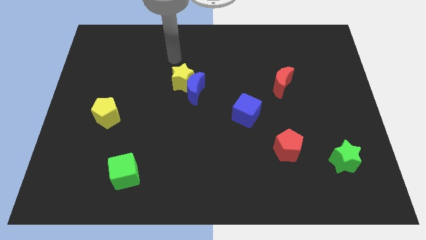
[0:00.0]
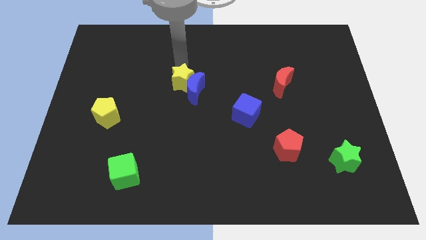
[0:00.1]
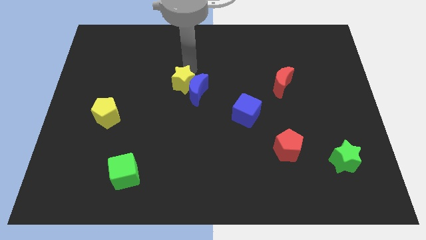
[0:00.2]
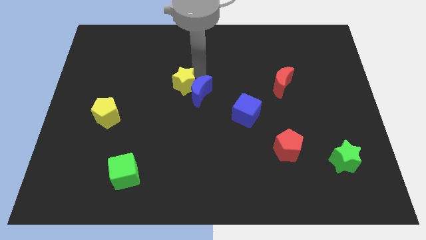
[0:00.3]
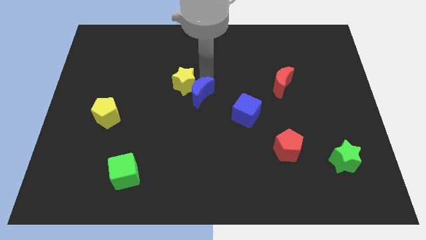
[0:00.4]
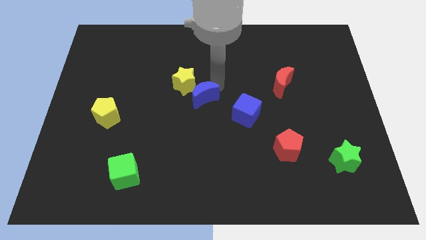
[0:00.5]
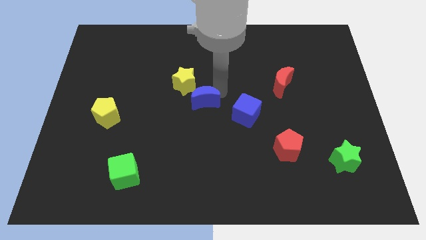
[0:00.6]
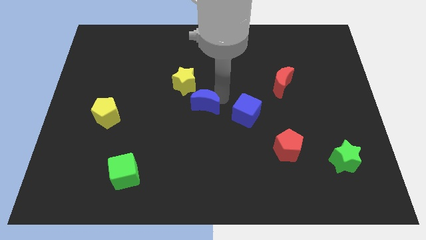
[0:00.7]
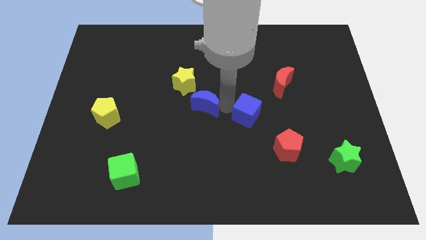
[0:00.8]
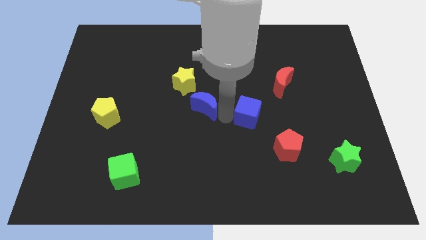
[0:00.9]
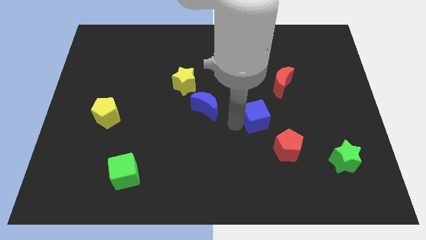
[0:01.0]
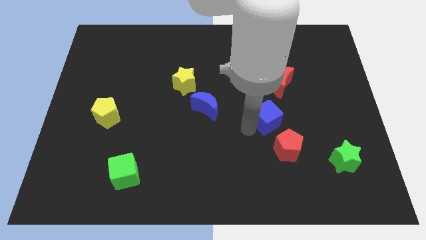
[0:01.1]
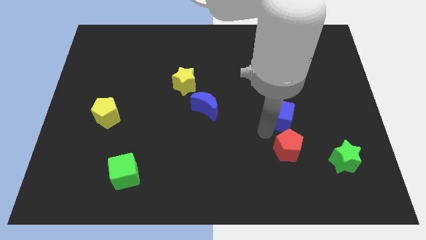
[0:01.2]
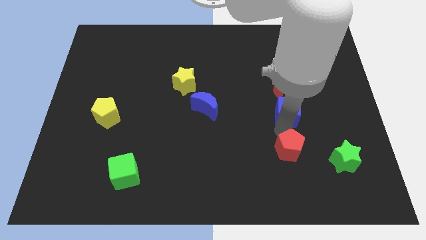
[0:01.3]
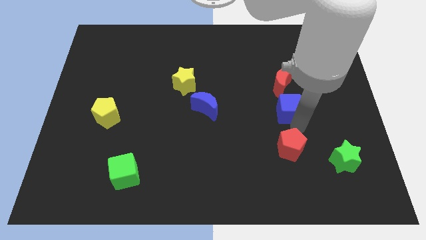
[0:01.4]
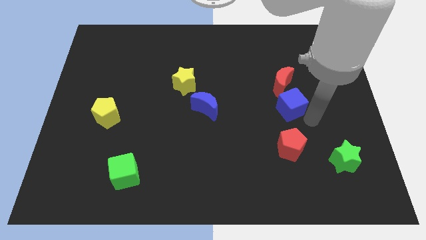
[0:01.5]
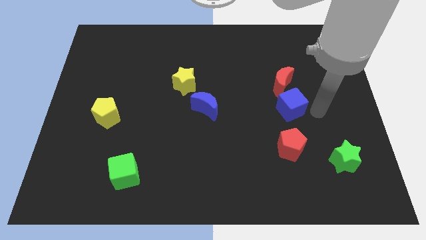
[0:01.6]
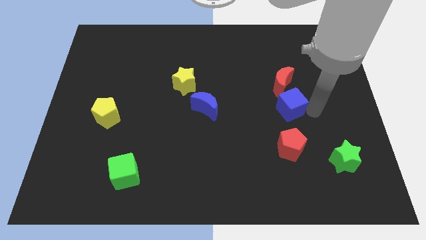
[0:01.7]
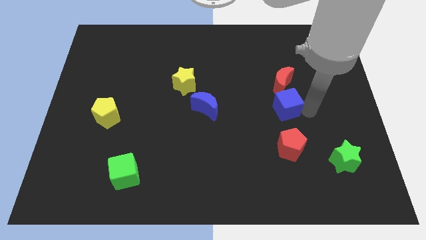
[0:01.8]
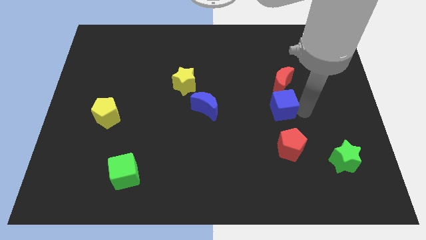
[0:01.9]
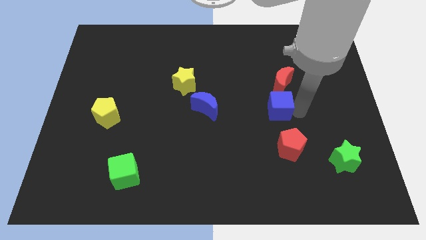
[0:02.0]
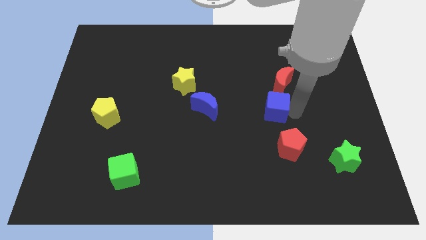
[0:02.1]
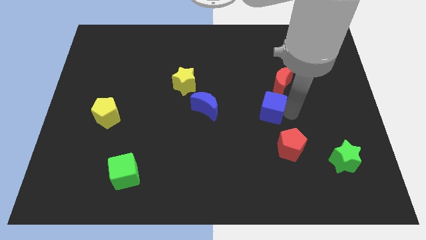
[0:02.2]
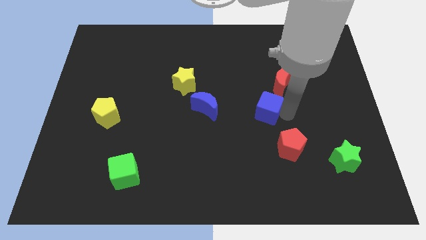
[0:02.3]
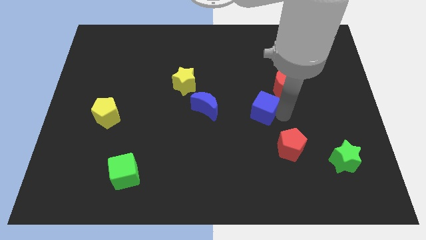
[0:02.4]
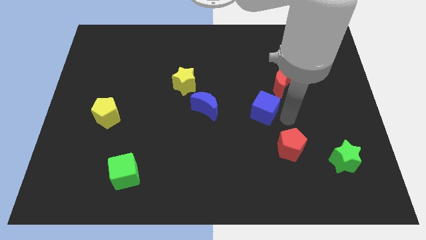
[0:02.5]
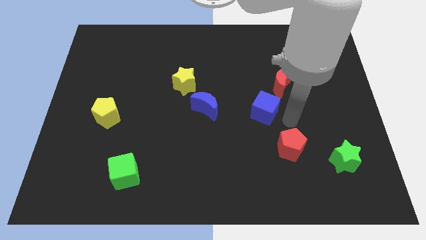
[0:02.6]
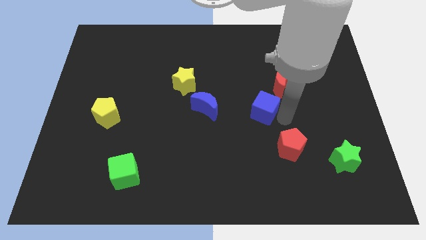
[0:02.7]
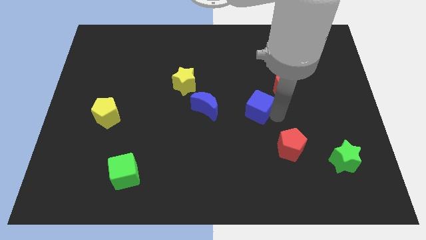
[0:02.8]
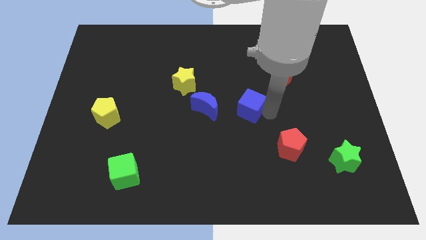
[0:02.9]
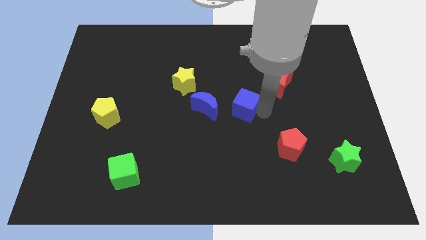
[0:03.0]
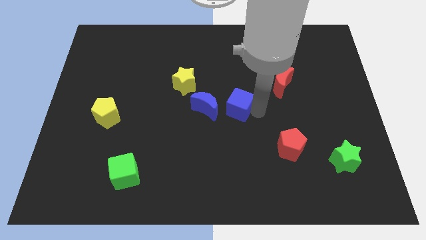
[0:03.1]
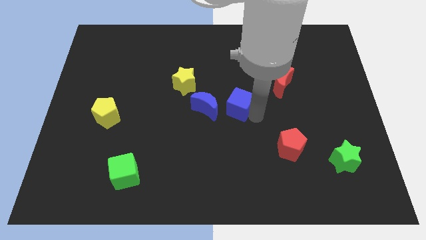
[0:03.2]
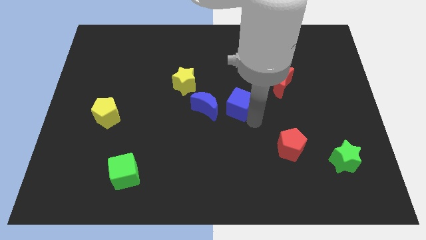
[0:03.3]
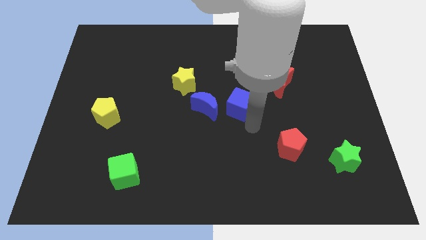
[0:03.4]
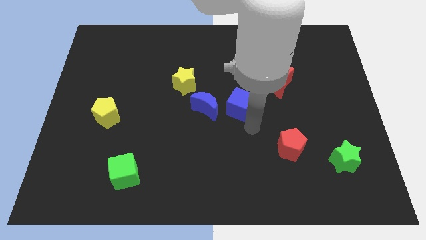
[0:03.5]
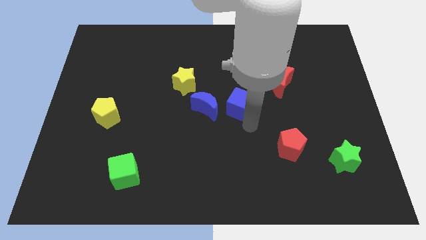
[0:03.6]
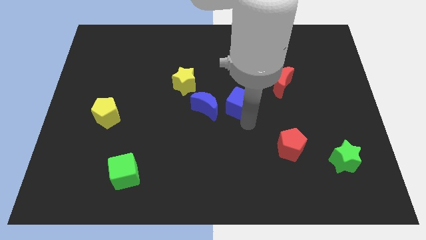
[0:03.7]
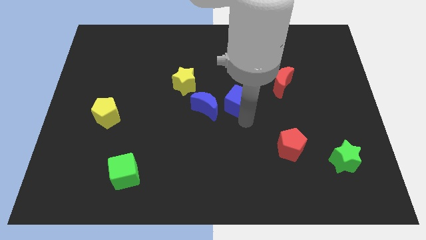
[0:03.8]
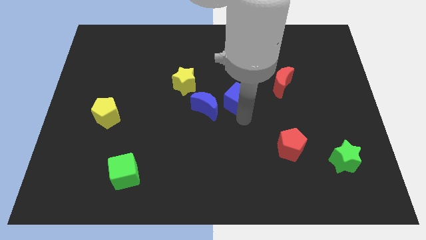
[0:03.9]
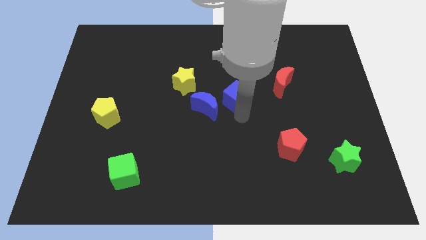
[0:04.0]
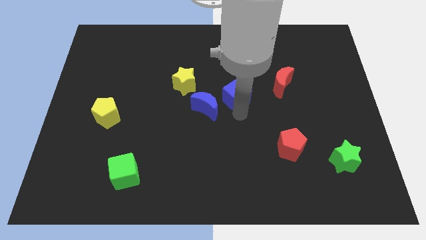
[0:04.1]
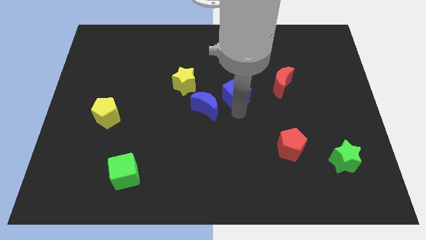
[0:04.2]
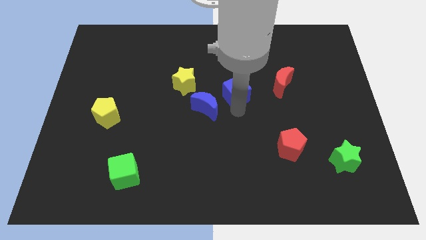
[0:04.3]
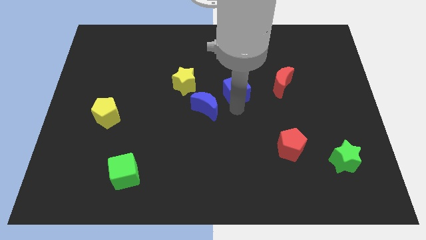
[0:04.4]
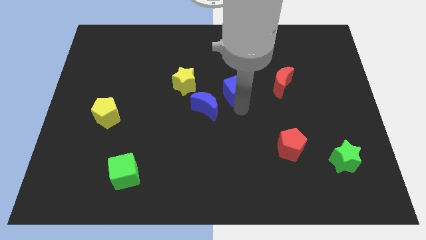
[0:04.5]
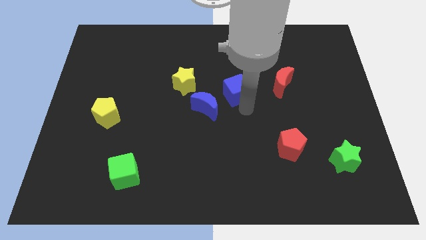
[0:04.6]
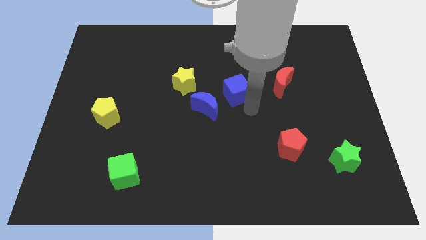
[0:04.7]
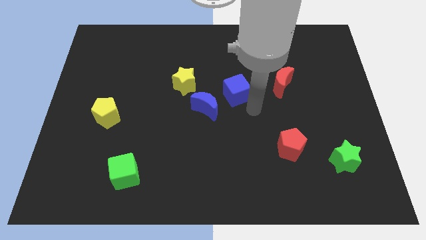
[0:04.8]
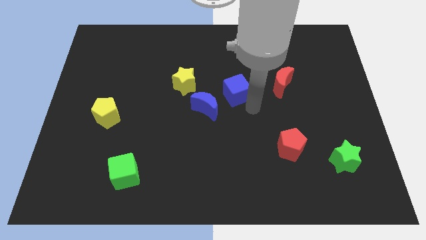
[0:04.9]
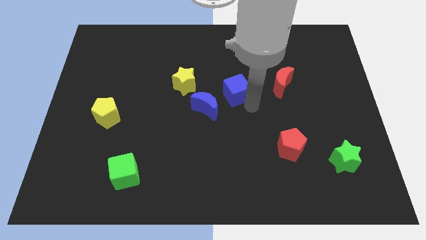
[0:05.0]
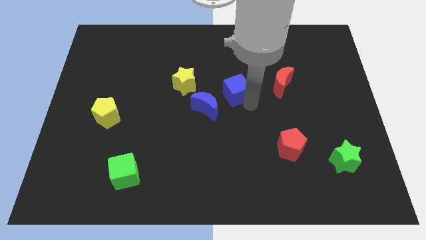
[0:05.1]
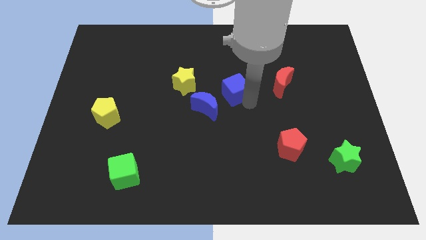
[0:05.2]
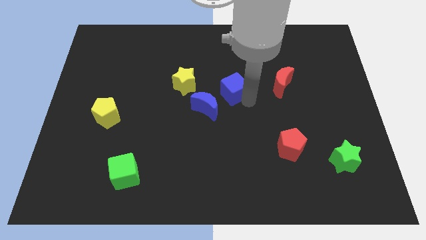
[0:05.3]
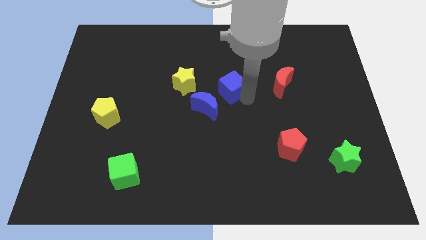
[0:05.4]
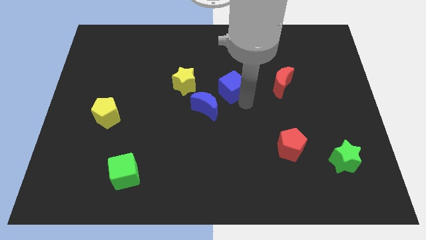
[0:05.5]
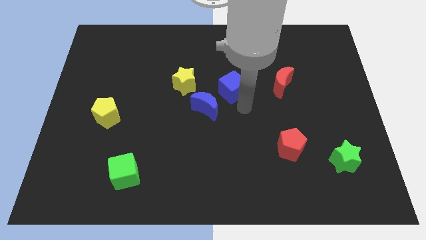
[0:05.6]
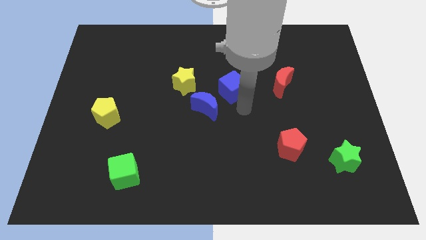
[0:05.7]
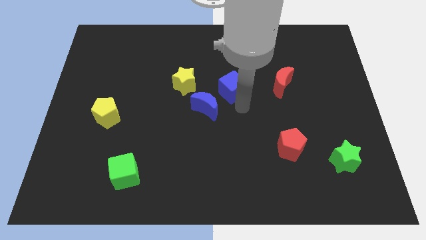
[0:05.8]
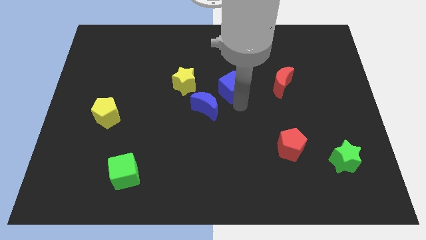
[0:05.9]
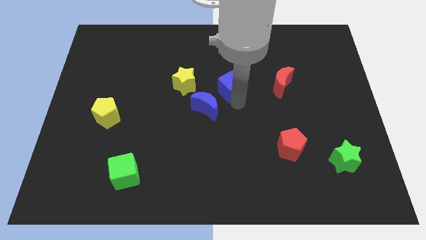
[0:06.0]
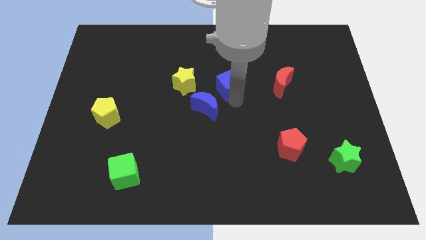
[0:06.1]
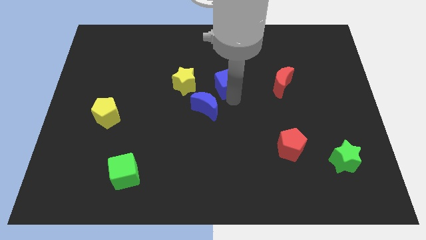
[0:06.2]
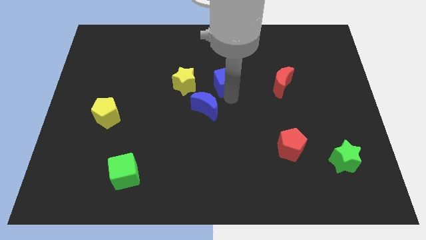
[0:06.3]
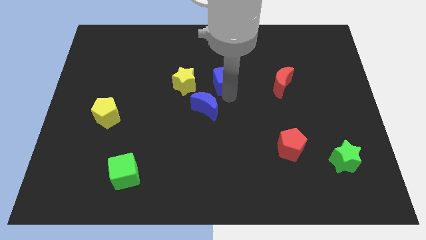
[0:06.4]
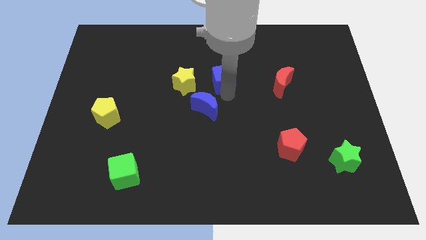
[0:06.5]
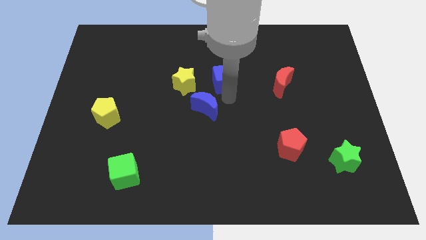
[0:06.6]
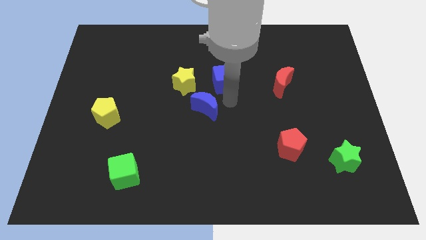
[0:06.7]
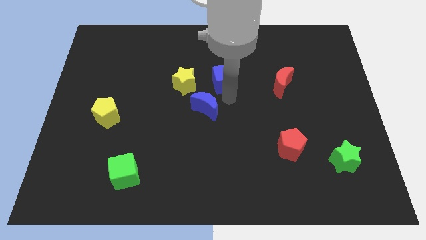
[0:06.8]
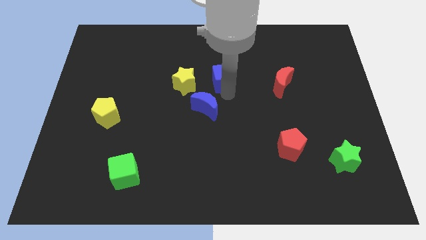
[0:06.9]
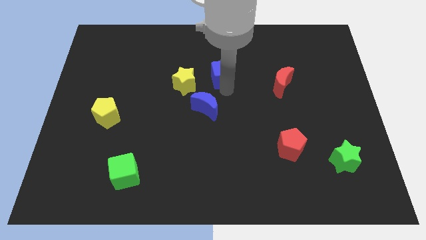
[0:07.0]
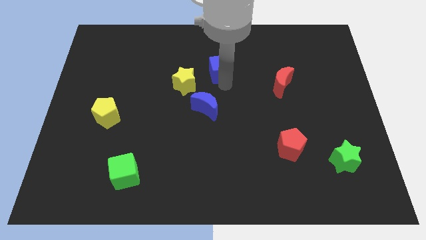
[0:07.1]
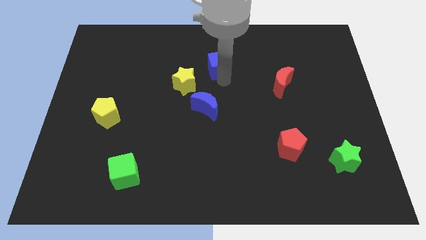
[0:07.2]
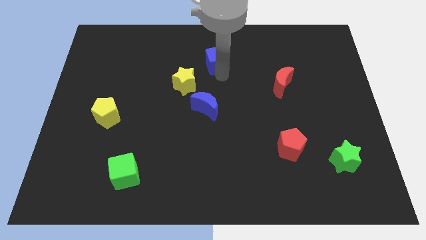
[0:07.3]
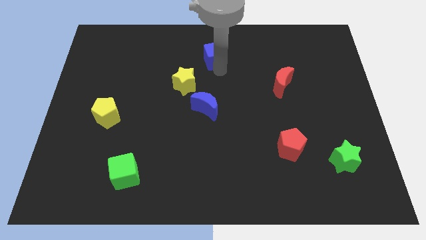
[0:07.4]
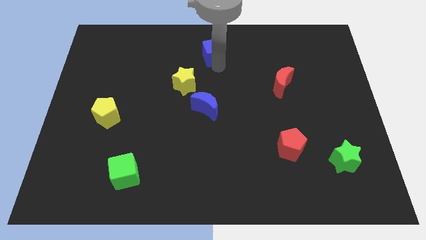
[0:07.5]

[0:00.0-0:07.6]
put the blue cube to the top
